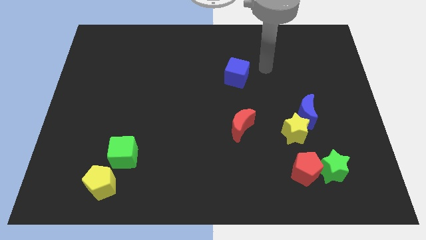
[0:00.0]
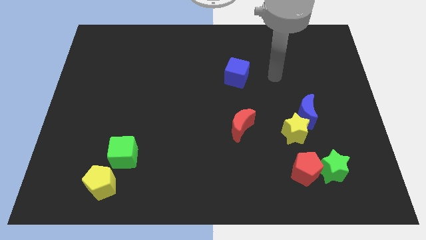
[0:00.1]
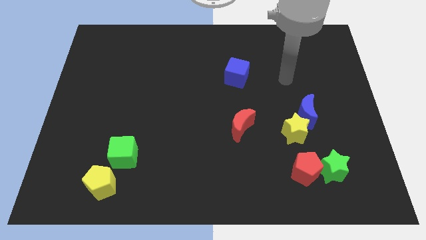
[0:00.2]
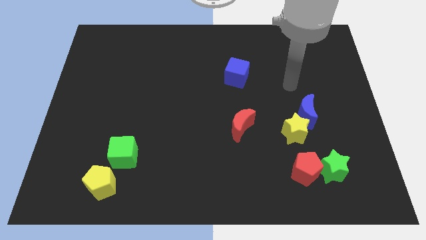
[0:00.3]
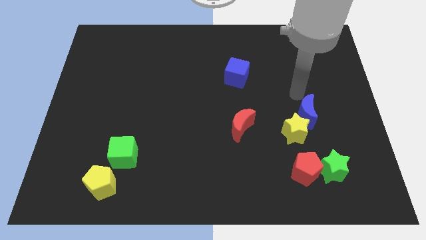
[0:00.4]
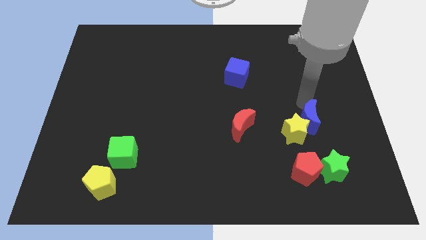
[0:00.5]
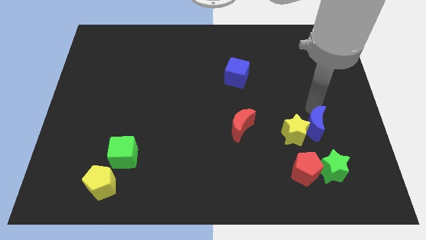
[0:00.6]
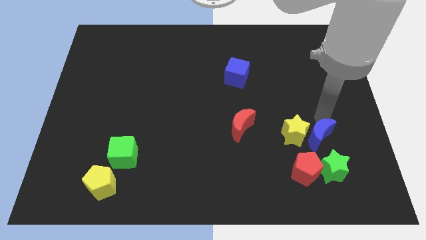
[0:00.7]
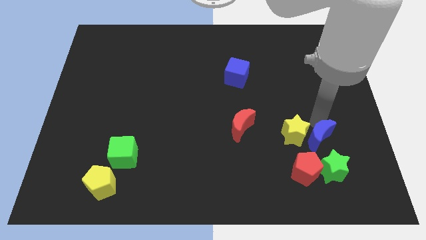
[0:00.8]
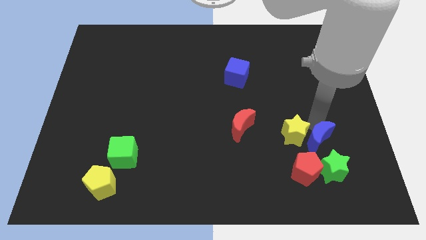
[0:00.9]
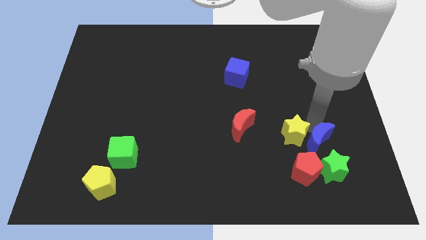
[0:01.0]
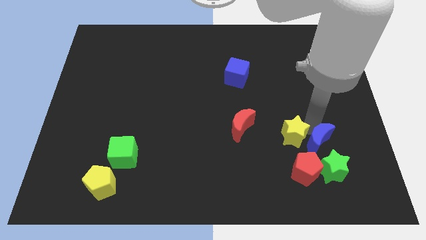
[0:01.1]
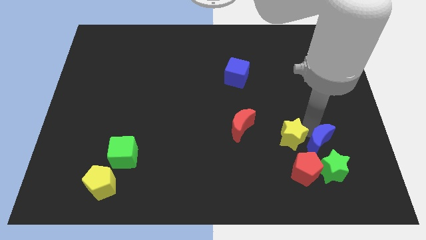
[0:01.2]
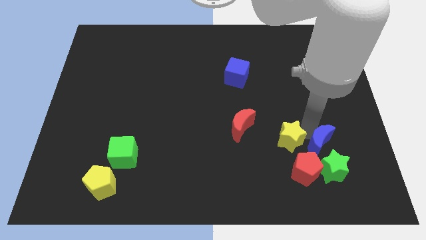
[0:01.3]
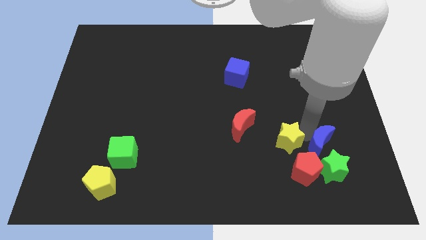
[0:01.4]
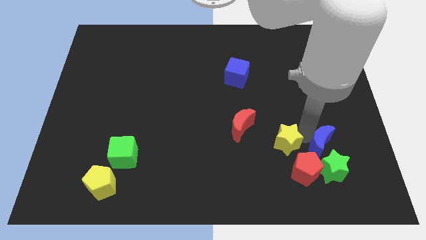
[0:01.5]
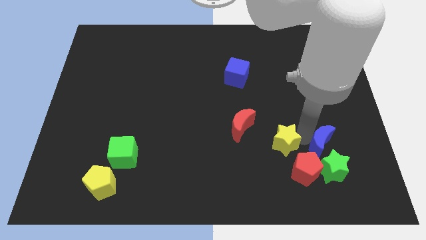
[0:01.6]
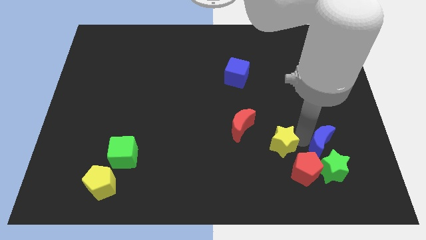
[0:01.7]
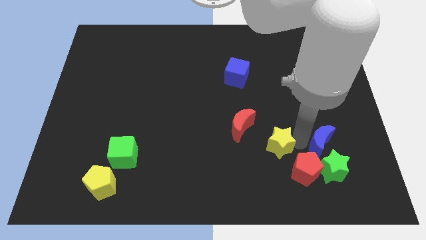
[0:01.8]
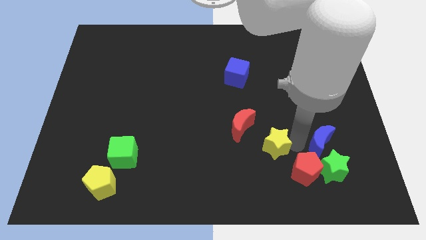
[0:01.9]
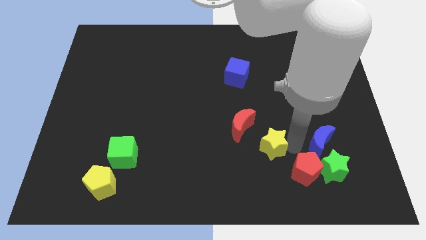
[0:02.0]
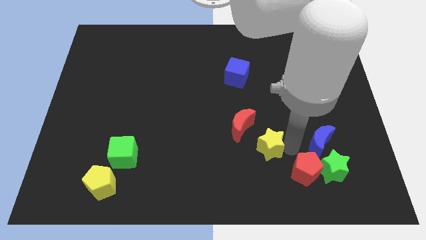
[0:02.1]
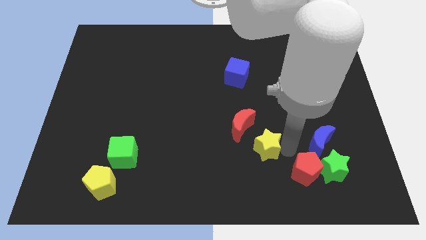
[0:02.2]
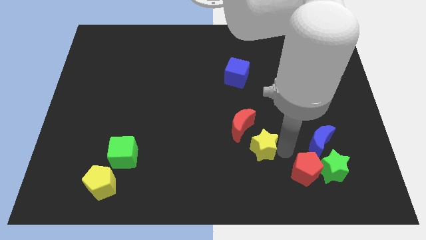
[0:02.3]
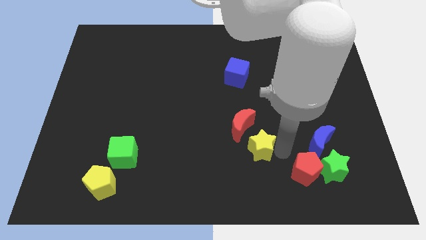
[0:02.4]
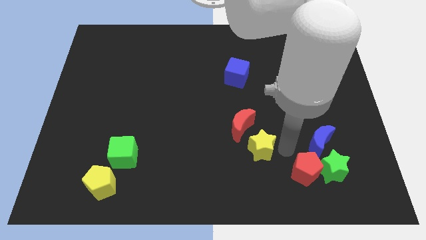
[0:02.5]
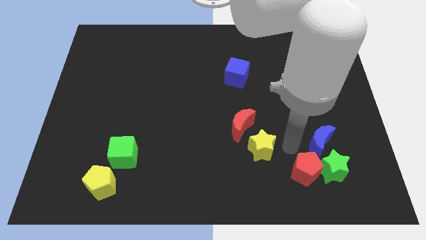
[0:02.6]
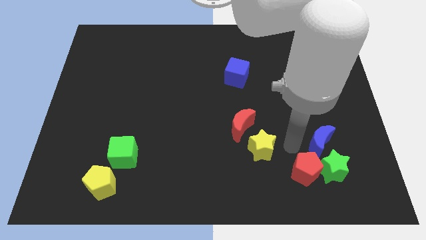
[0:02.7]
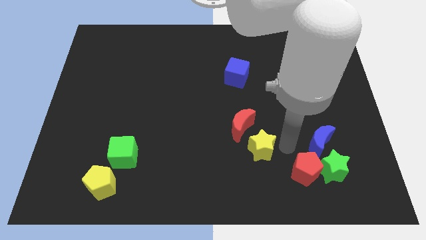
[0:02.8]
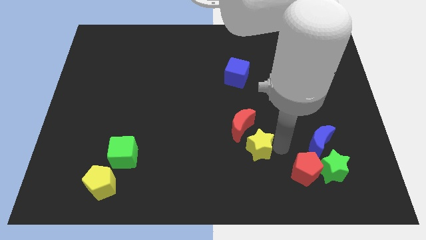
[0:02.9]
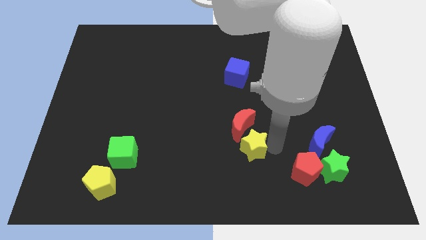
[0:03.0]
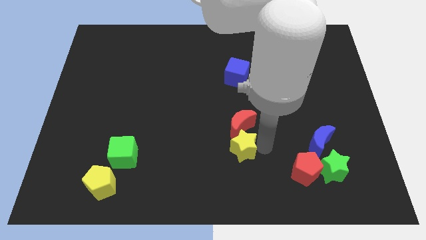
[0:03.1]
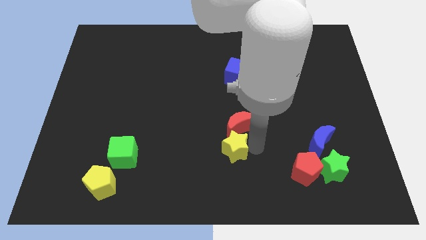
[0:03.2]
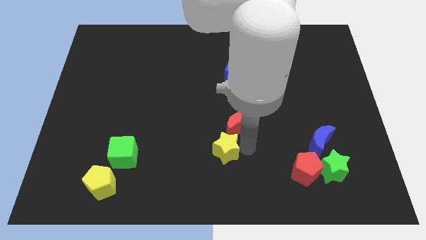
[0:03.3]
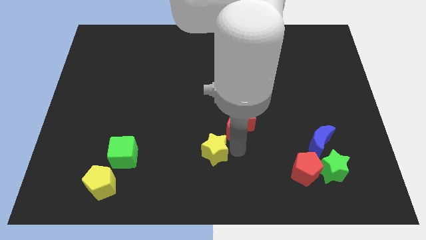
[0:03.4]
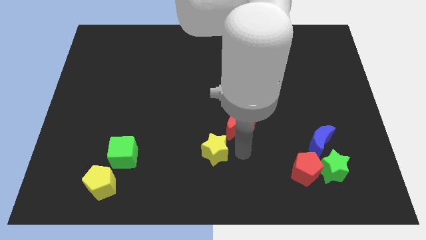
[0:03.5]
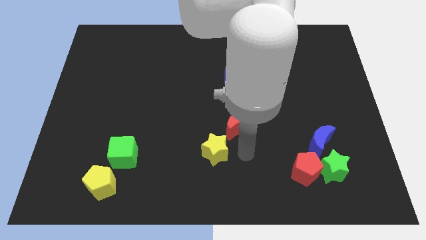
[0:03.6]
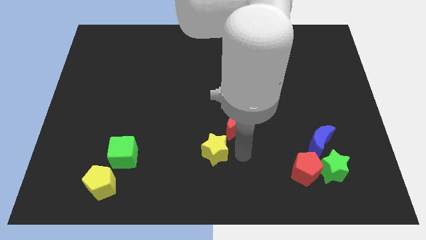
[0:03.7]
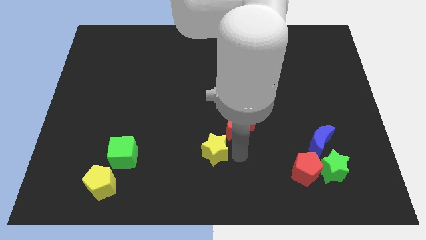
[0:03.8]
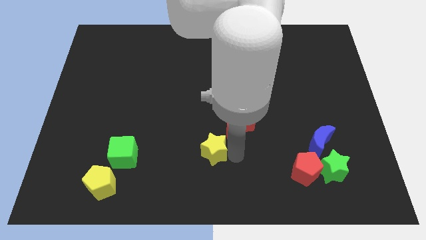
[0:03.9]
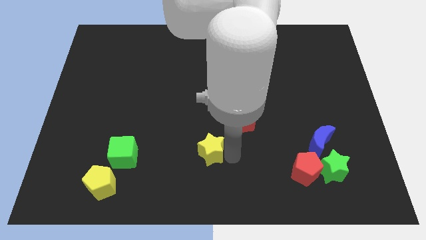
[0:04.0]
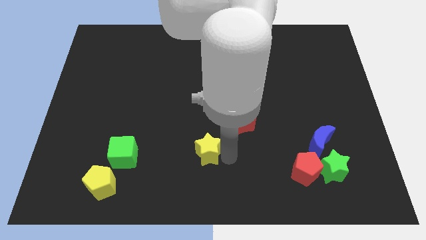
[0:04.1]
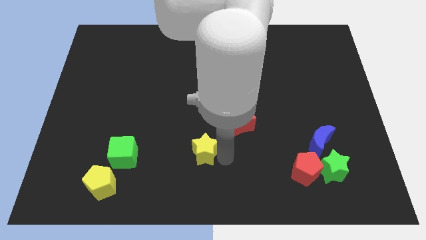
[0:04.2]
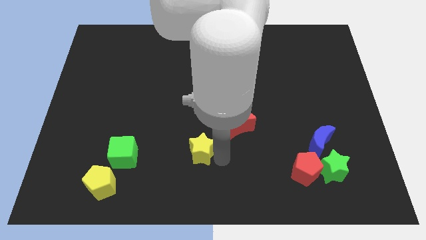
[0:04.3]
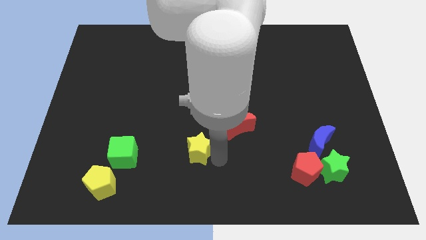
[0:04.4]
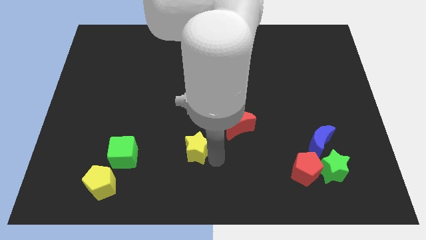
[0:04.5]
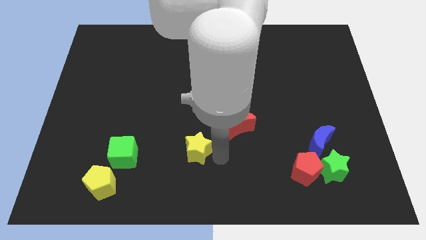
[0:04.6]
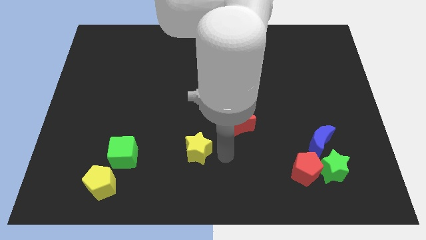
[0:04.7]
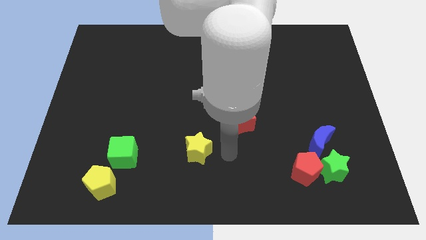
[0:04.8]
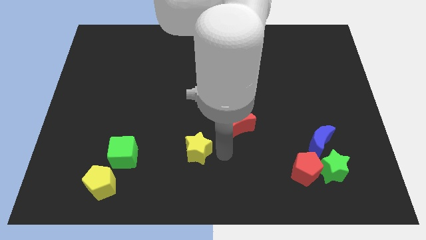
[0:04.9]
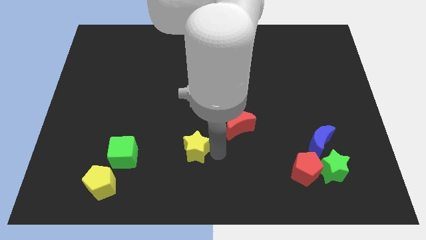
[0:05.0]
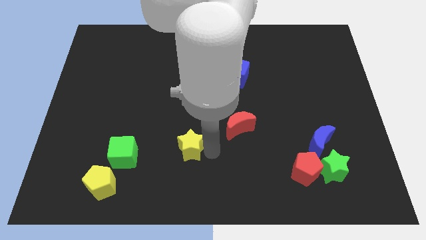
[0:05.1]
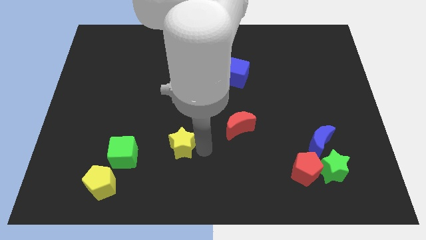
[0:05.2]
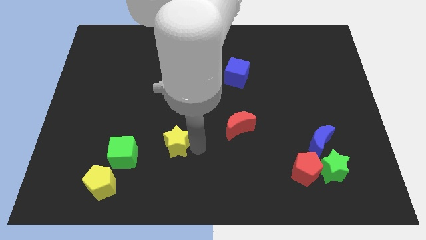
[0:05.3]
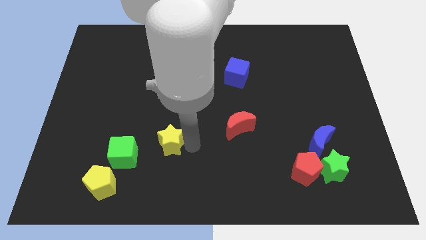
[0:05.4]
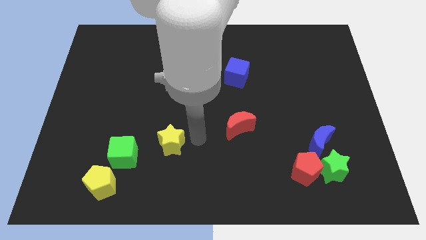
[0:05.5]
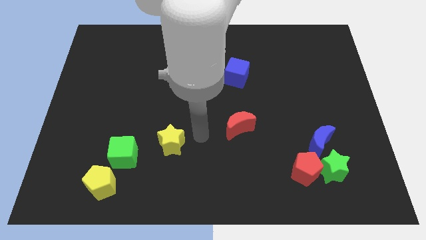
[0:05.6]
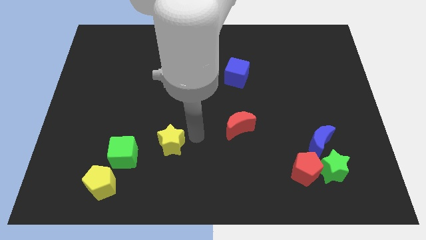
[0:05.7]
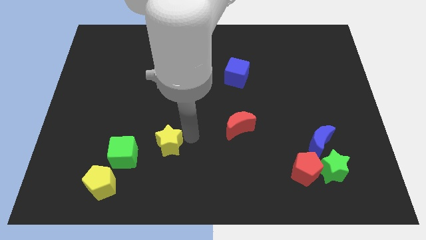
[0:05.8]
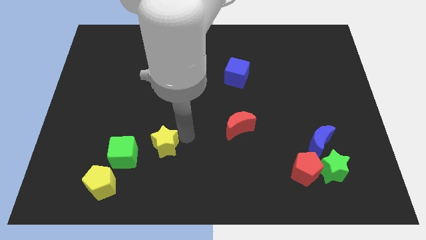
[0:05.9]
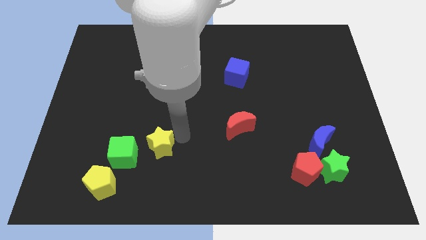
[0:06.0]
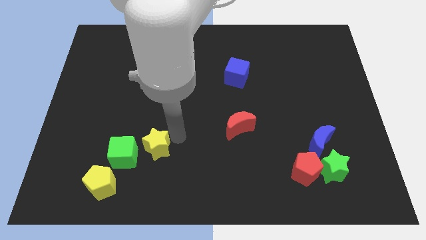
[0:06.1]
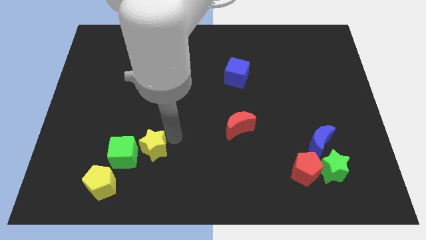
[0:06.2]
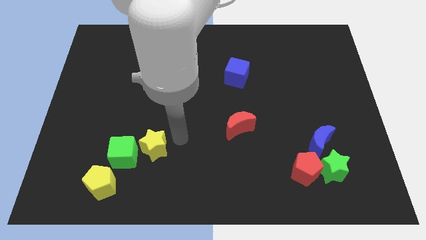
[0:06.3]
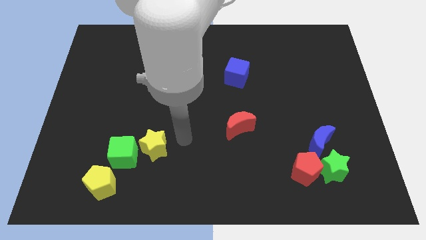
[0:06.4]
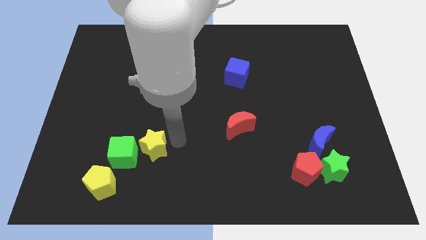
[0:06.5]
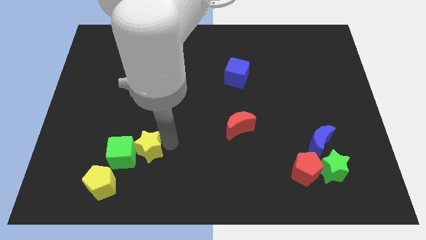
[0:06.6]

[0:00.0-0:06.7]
push the yellow star next to the green cube

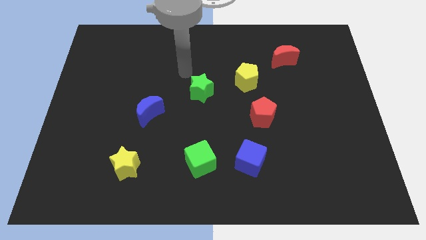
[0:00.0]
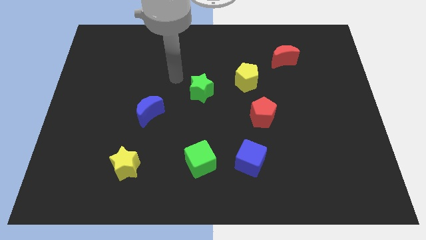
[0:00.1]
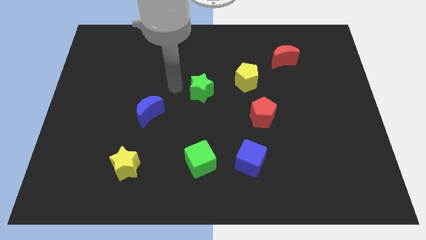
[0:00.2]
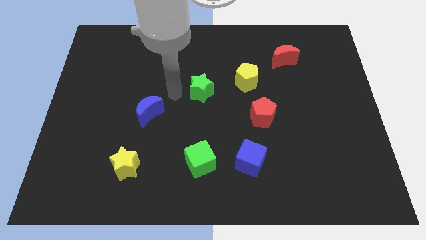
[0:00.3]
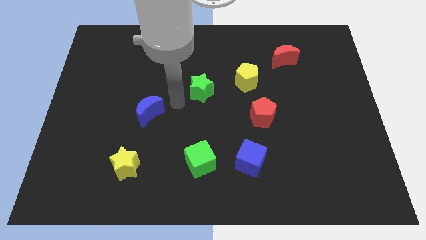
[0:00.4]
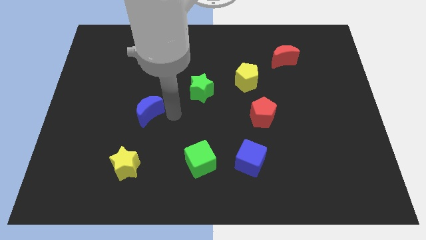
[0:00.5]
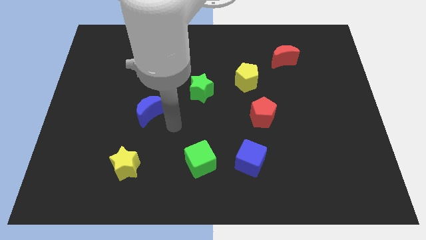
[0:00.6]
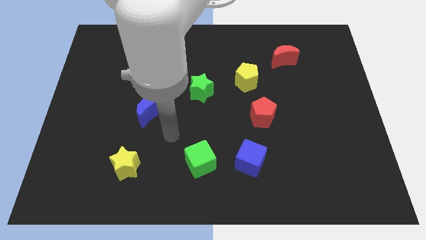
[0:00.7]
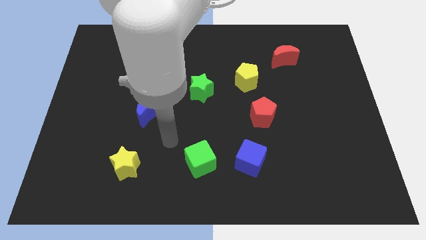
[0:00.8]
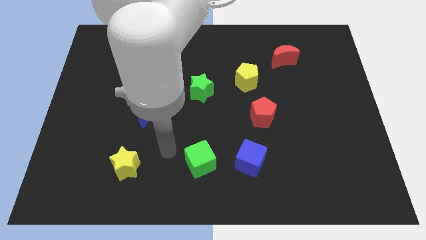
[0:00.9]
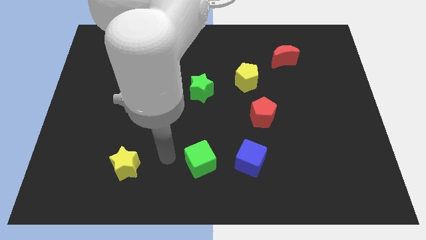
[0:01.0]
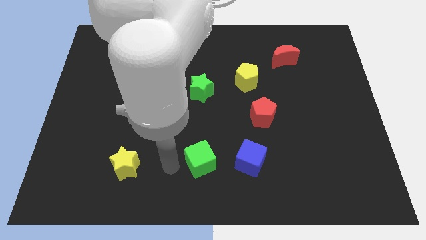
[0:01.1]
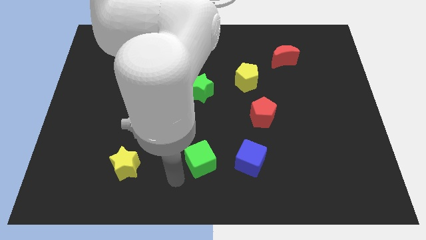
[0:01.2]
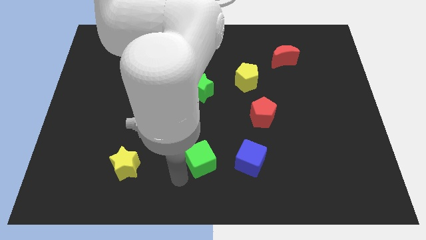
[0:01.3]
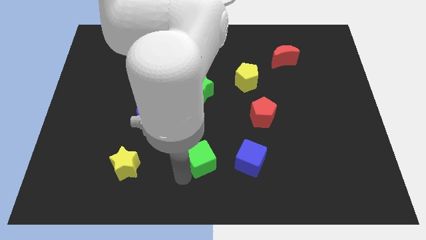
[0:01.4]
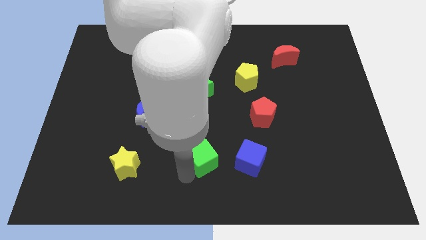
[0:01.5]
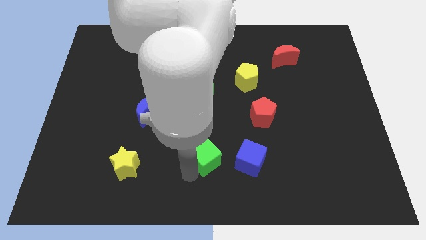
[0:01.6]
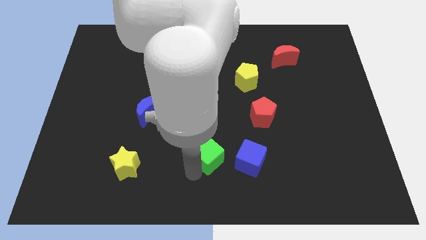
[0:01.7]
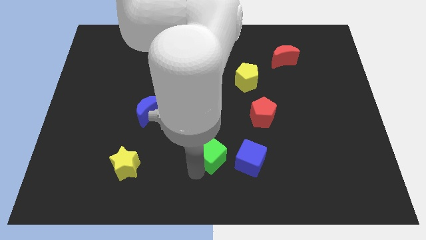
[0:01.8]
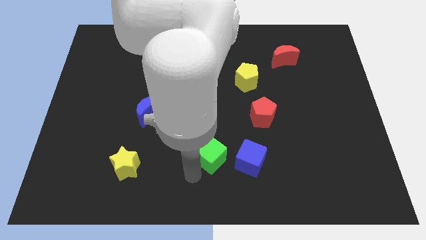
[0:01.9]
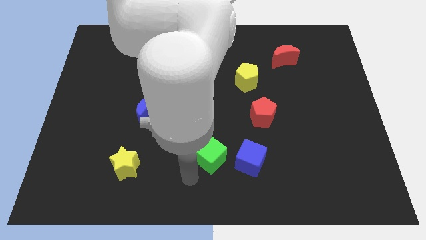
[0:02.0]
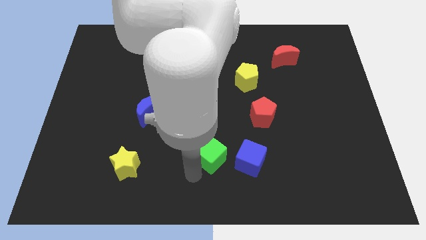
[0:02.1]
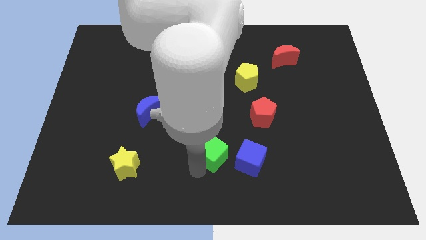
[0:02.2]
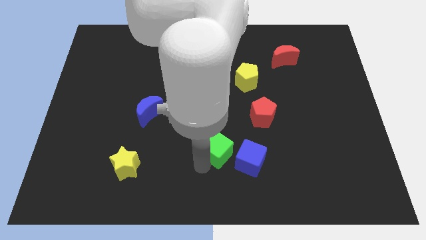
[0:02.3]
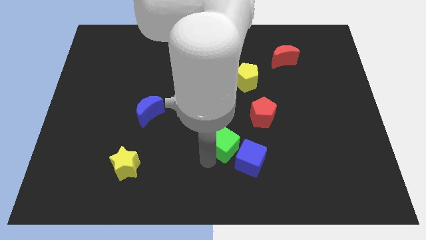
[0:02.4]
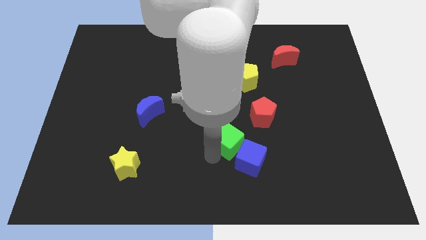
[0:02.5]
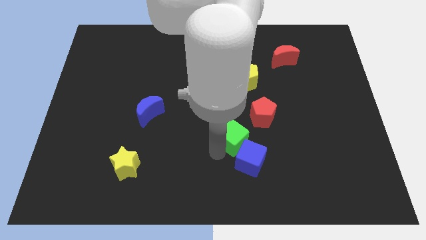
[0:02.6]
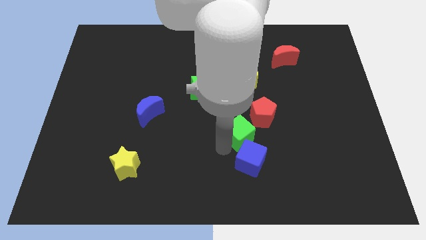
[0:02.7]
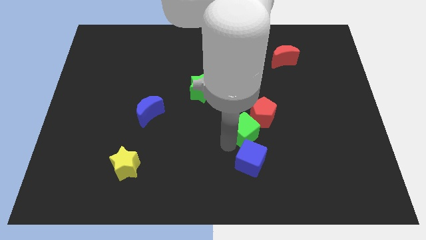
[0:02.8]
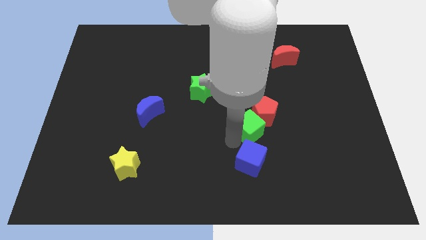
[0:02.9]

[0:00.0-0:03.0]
put the green cube close to the red pentagon
